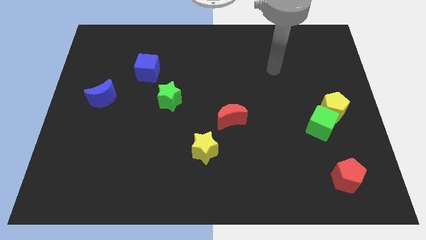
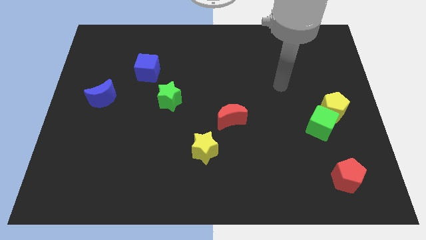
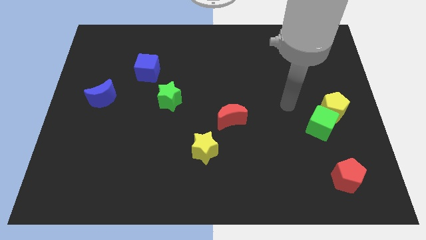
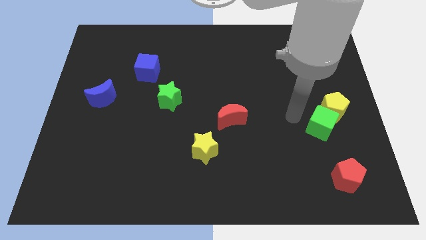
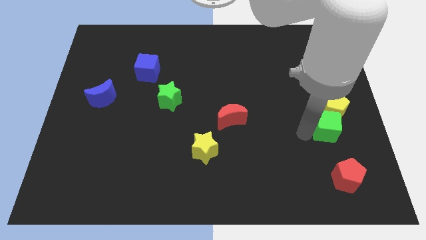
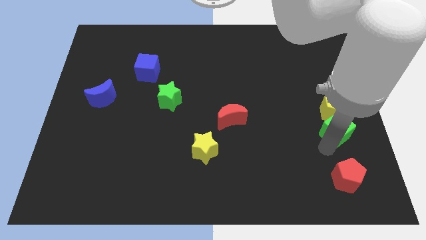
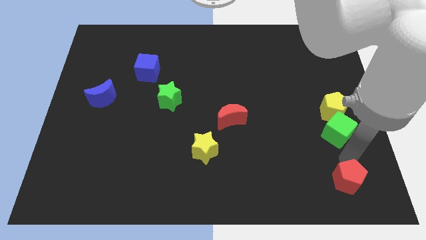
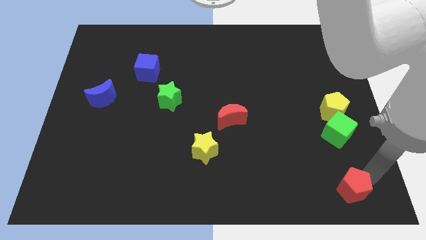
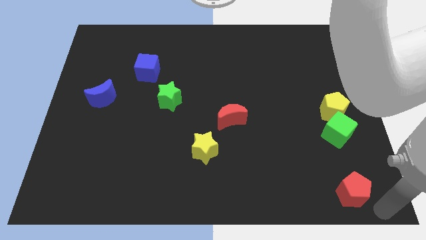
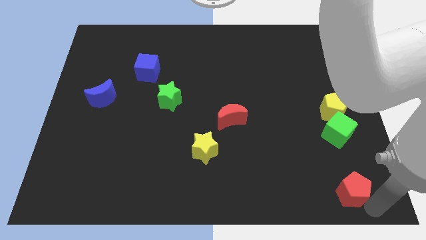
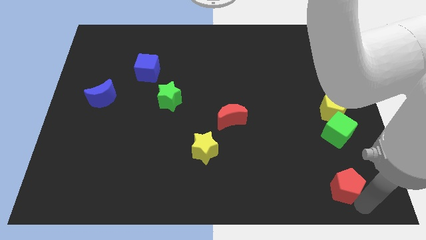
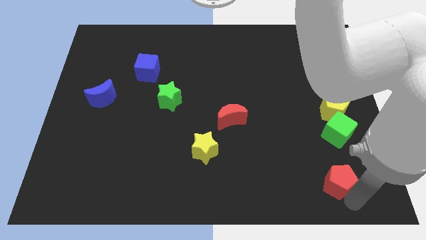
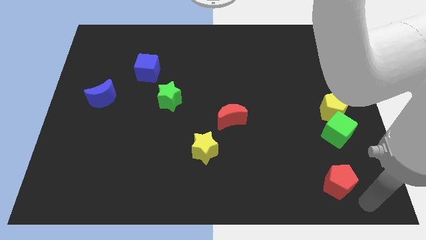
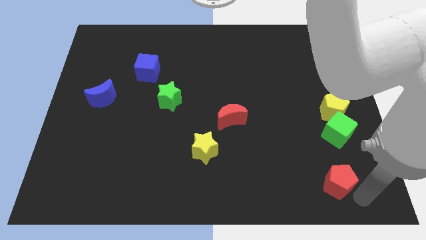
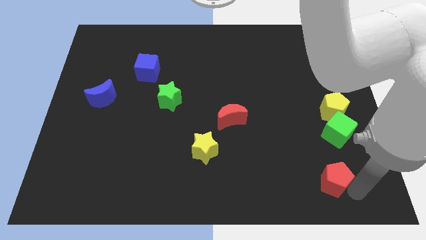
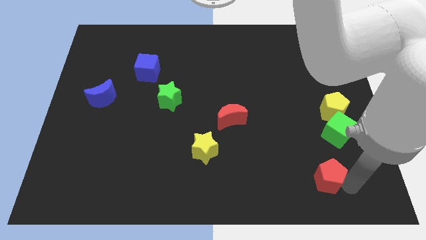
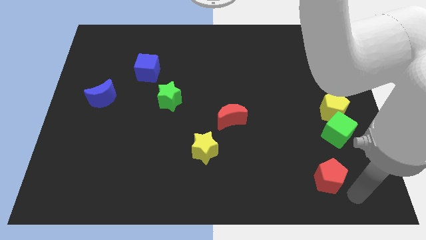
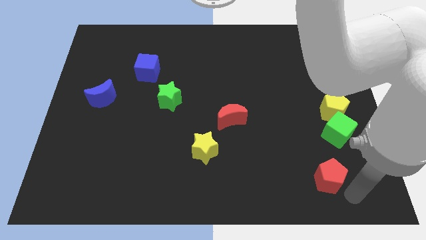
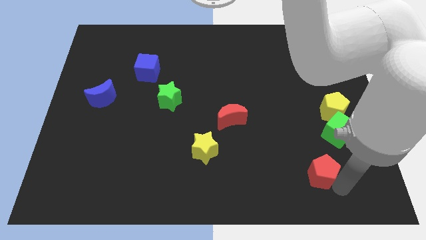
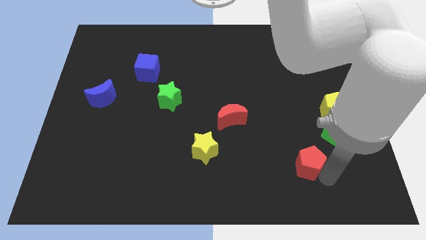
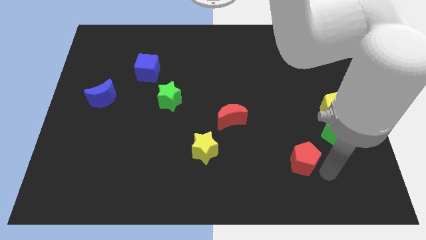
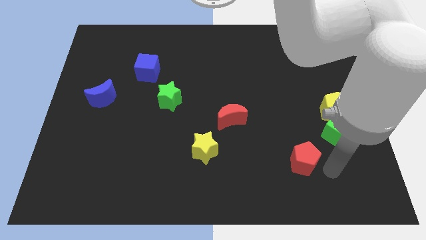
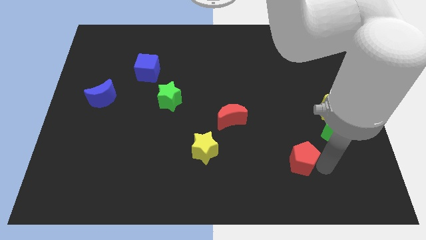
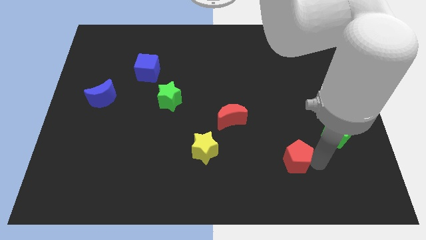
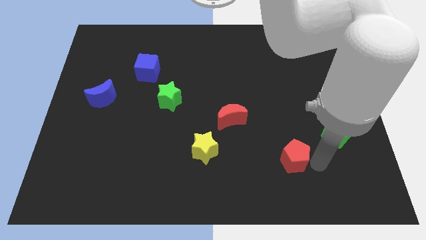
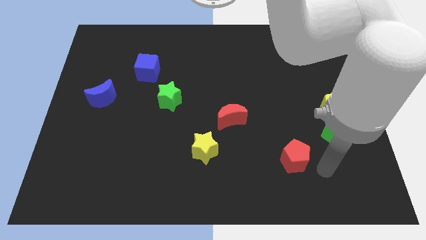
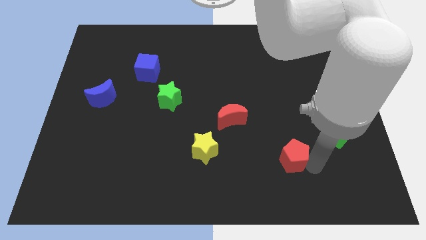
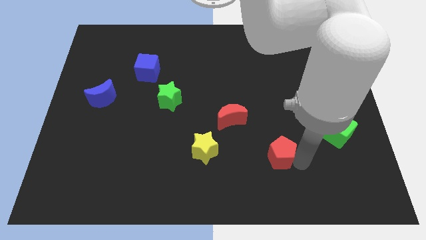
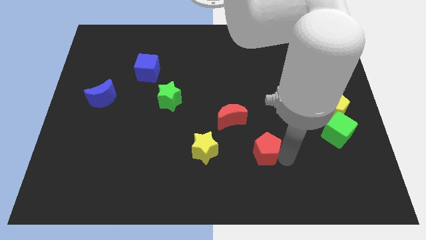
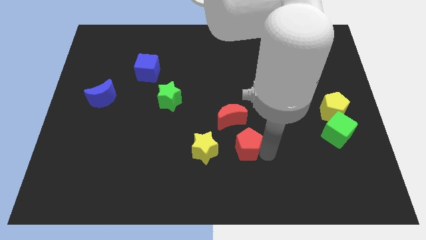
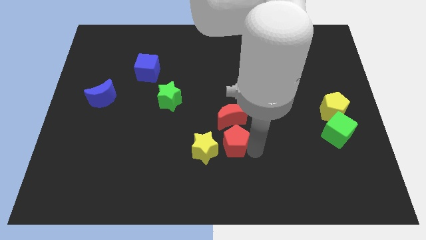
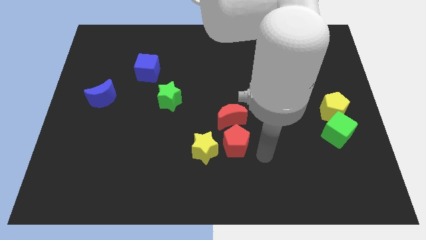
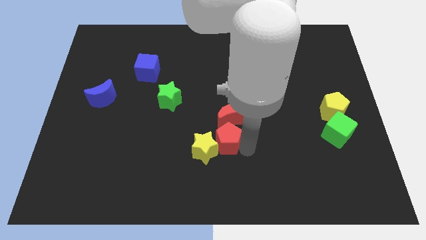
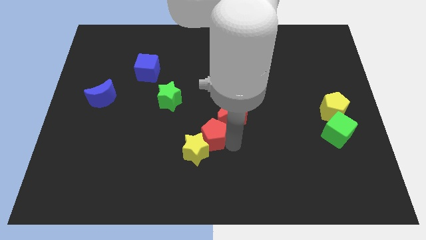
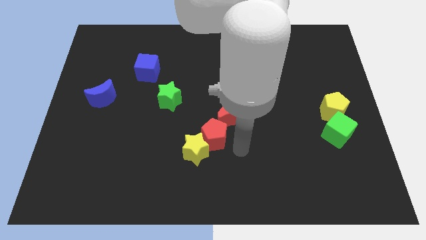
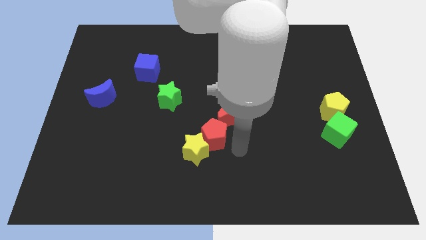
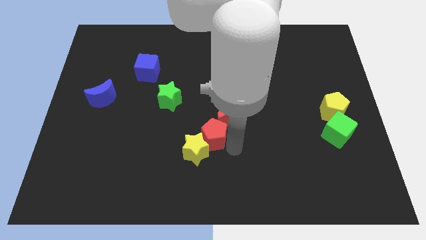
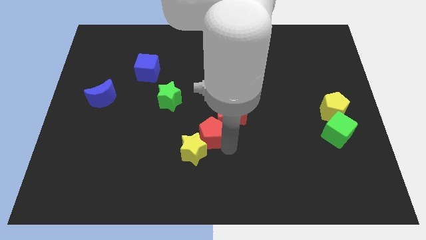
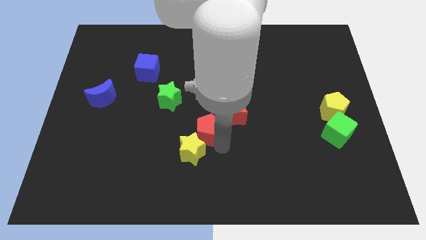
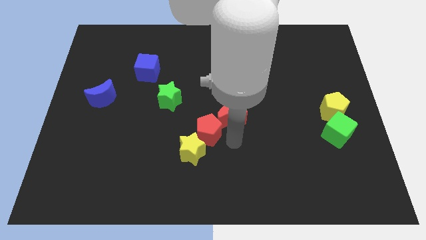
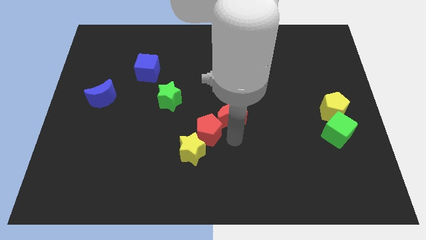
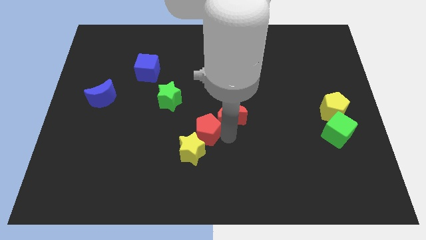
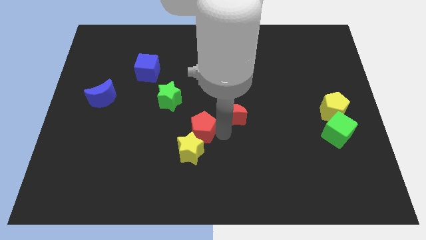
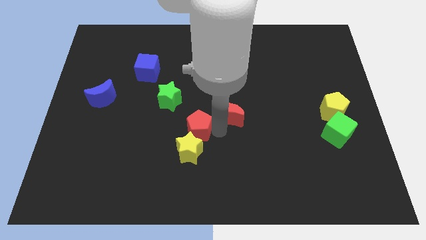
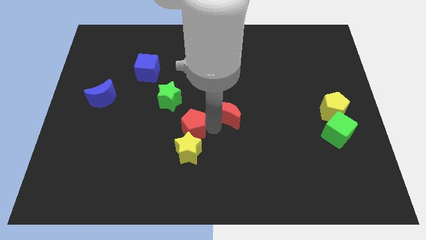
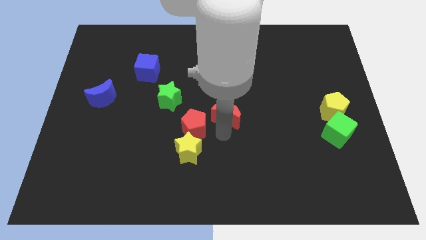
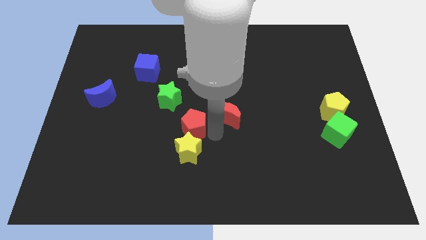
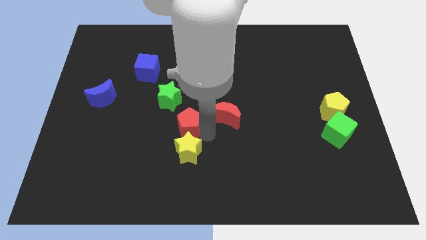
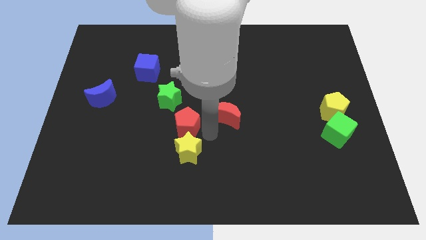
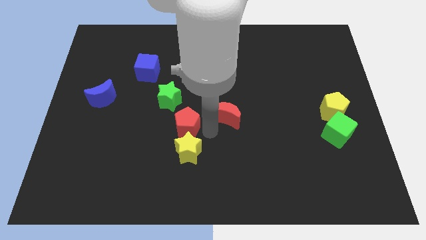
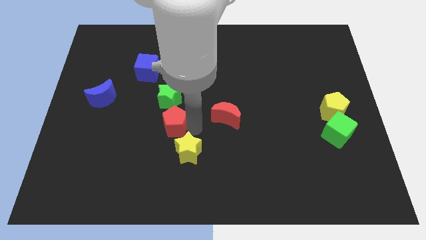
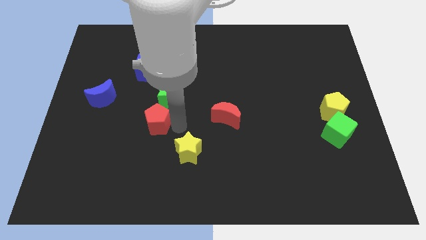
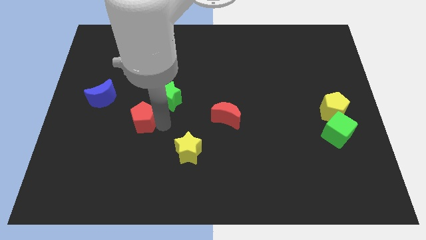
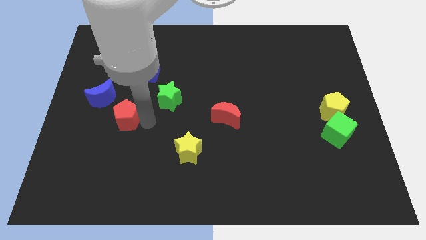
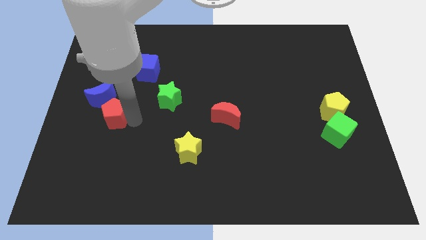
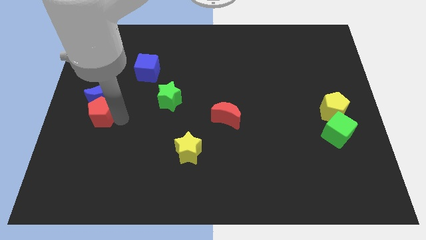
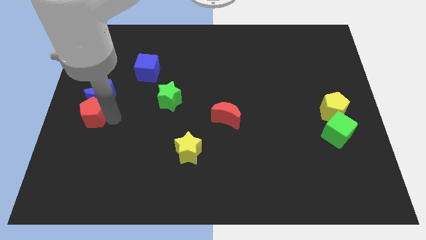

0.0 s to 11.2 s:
put the red pentagon to the left side
